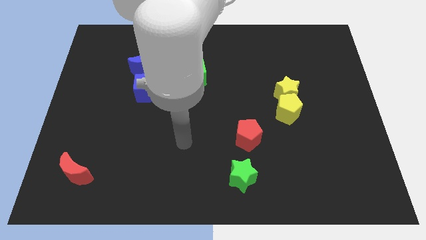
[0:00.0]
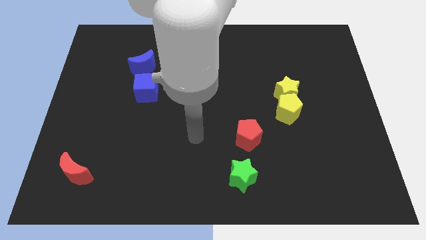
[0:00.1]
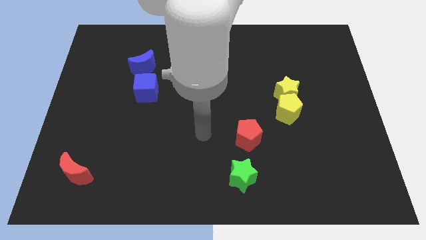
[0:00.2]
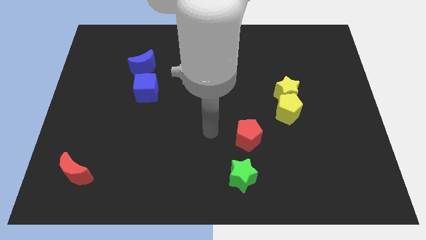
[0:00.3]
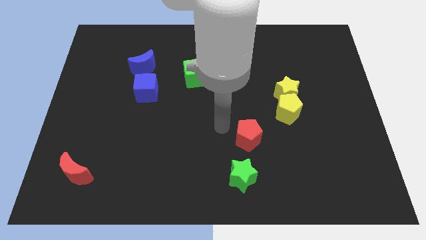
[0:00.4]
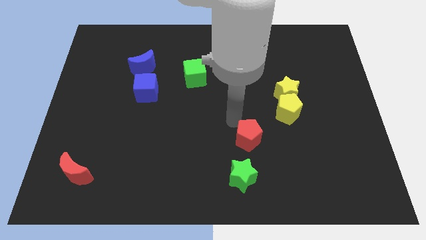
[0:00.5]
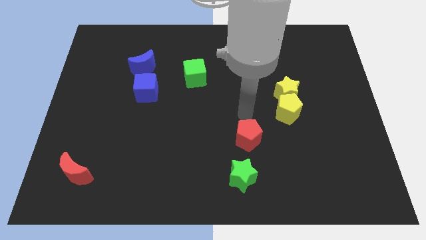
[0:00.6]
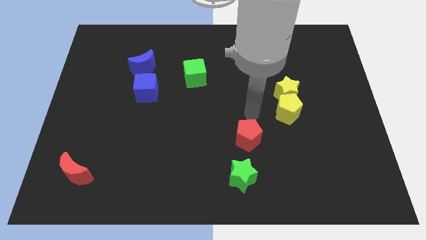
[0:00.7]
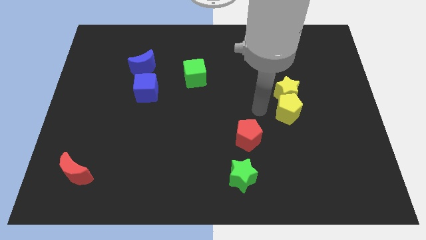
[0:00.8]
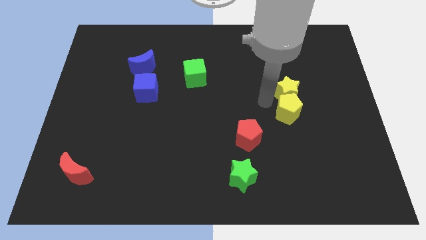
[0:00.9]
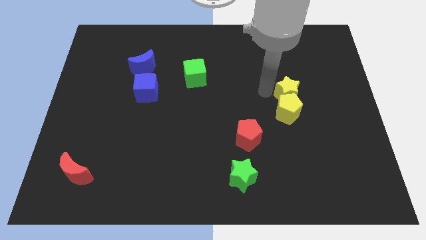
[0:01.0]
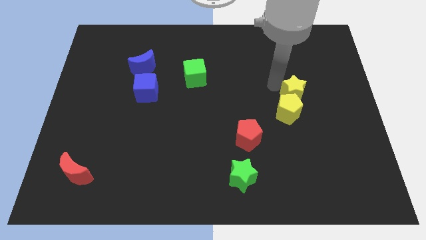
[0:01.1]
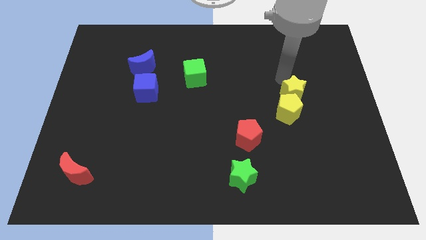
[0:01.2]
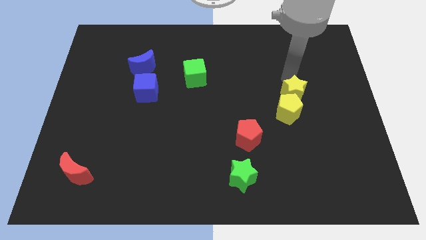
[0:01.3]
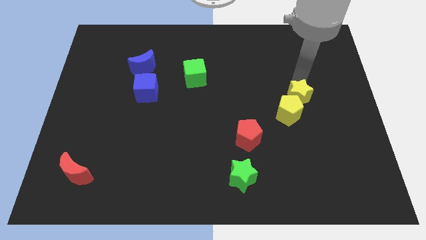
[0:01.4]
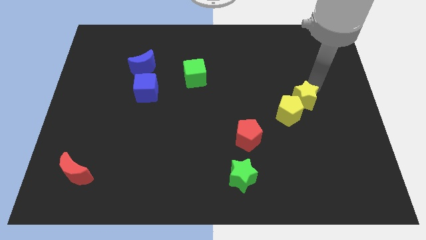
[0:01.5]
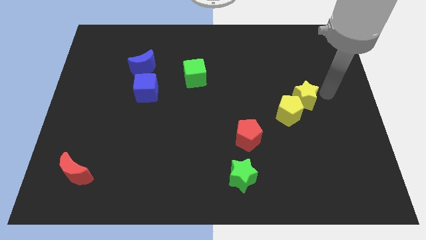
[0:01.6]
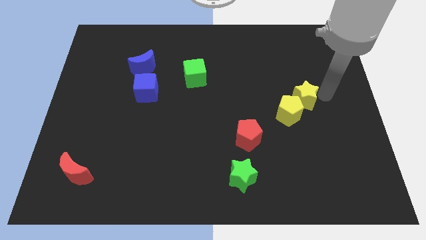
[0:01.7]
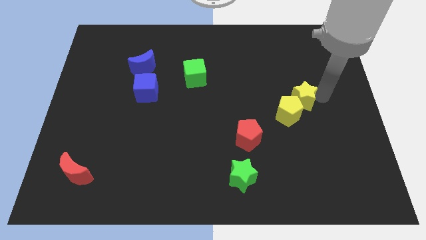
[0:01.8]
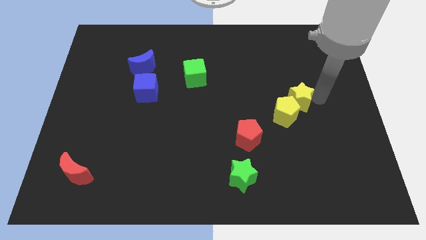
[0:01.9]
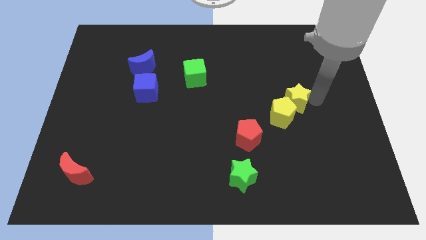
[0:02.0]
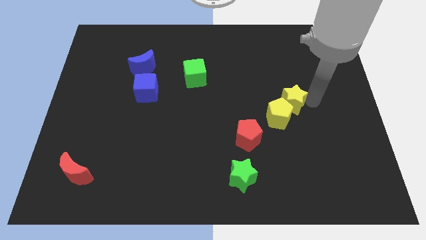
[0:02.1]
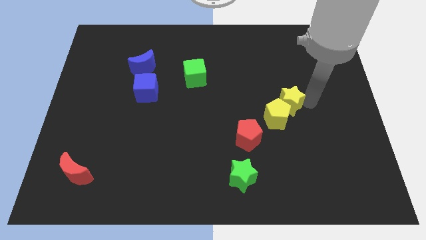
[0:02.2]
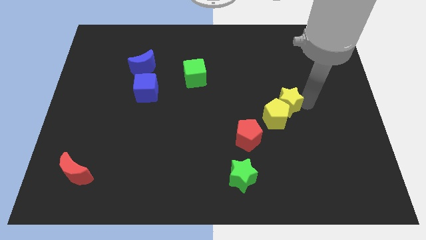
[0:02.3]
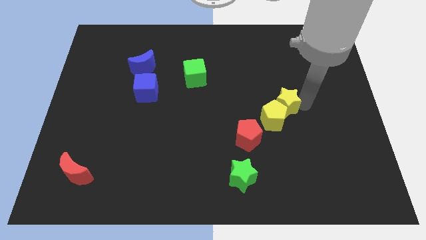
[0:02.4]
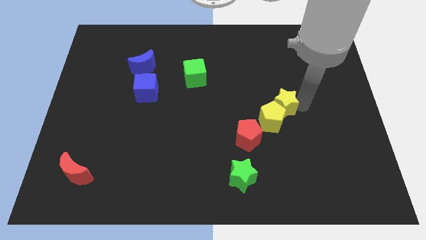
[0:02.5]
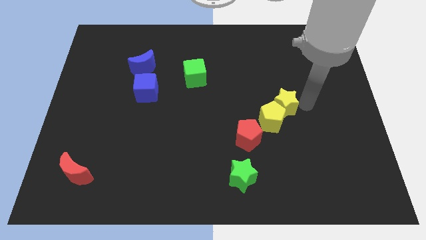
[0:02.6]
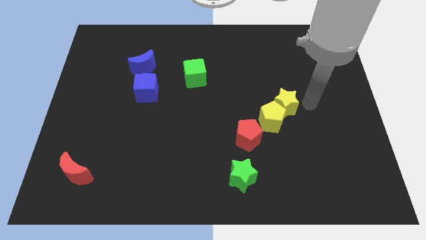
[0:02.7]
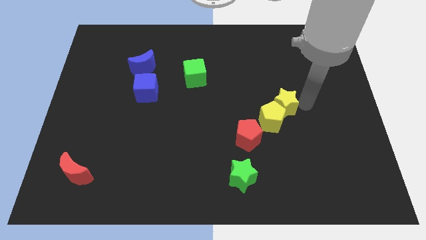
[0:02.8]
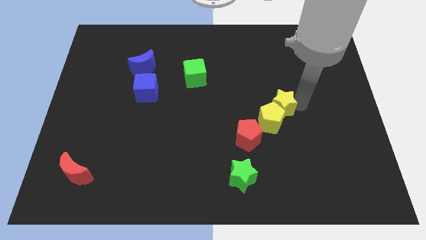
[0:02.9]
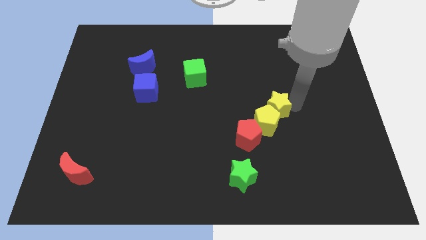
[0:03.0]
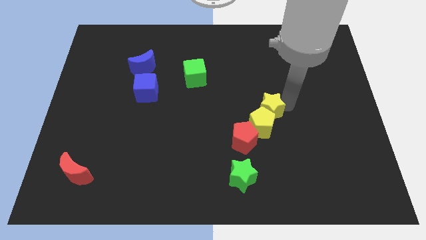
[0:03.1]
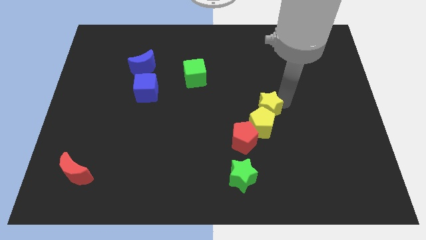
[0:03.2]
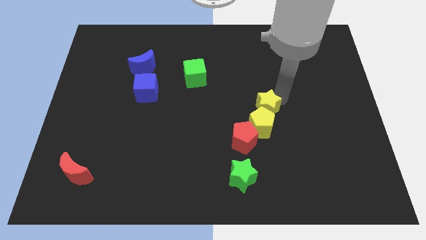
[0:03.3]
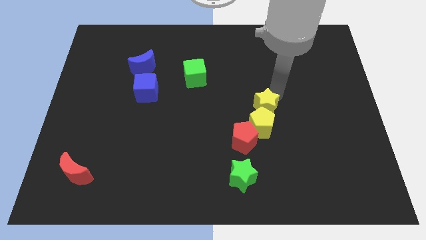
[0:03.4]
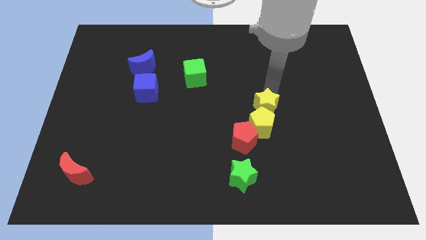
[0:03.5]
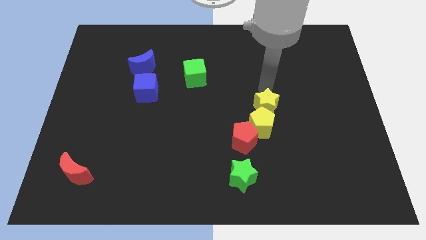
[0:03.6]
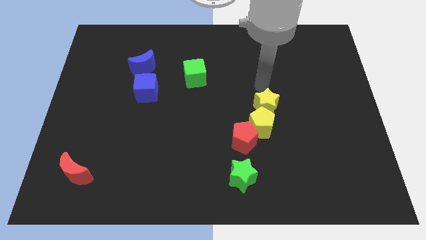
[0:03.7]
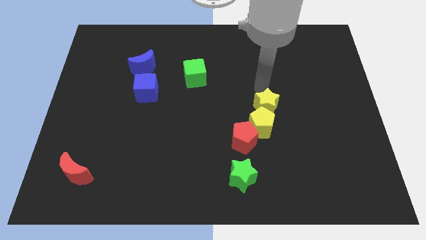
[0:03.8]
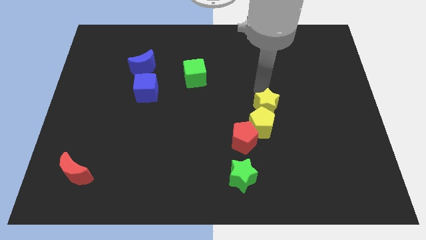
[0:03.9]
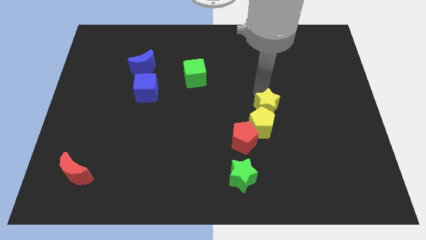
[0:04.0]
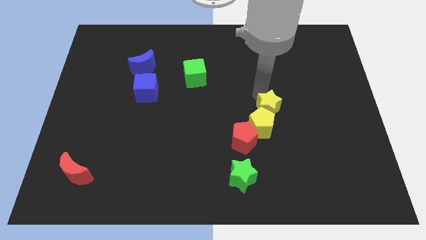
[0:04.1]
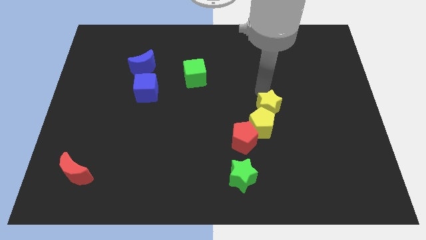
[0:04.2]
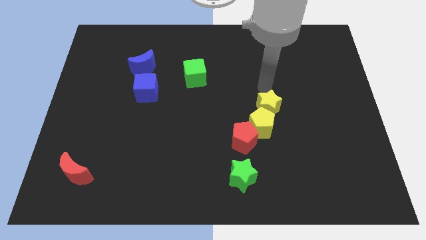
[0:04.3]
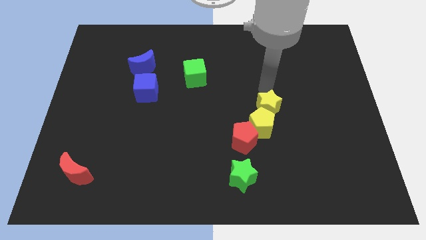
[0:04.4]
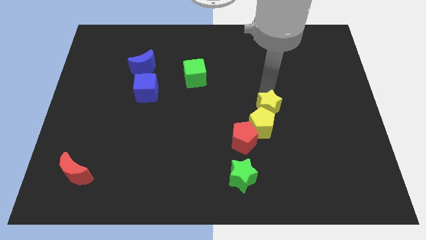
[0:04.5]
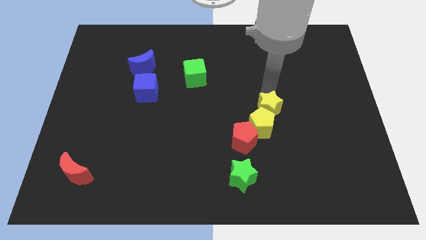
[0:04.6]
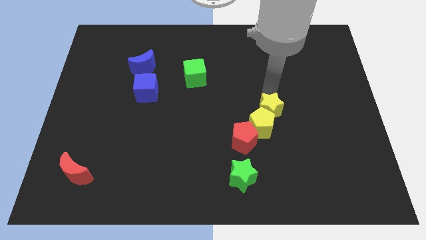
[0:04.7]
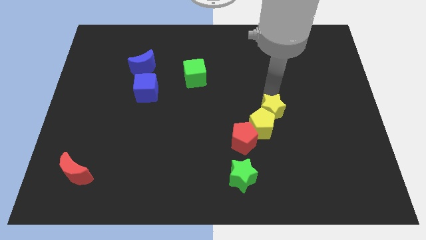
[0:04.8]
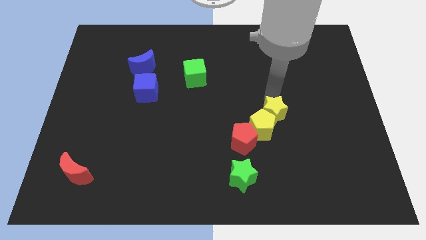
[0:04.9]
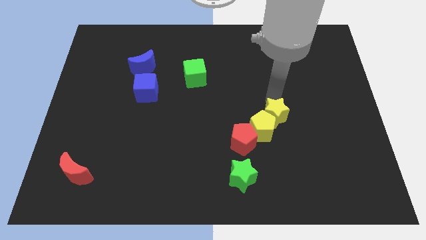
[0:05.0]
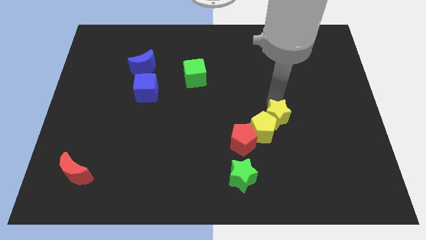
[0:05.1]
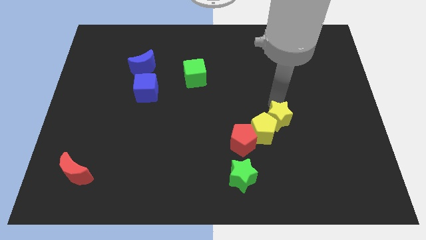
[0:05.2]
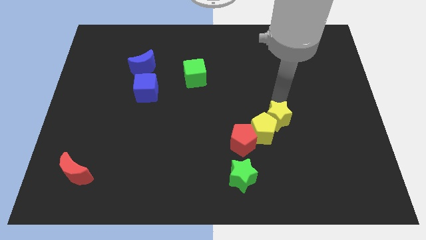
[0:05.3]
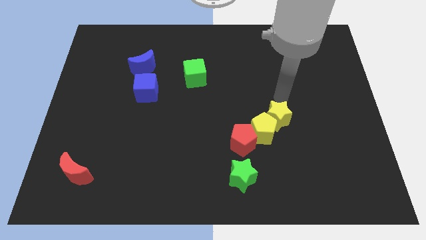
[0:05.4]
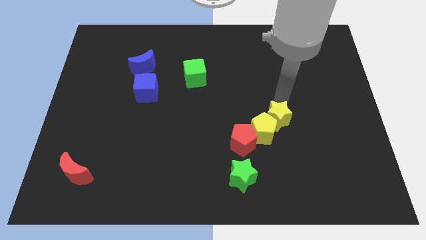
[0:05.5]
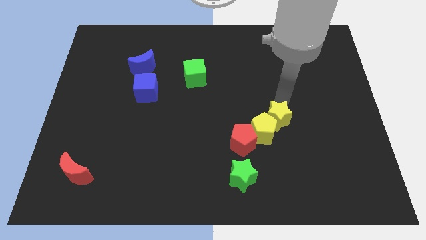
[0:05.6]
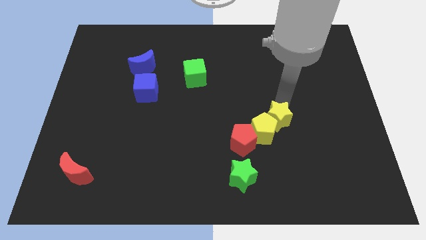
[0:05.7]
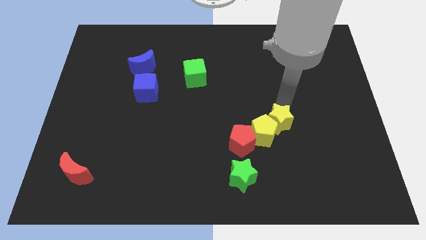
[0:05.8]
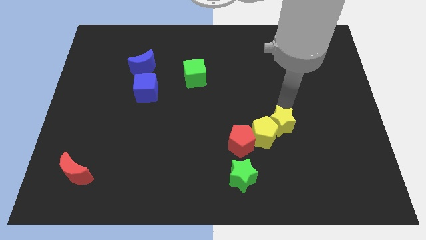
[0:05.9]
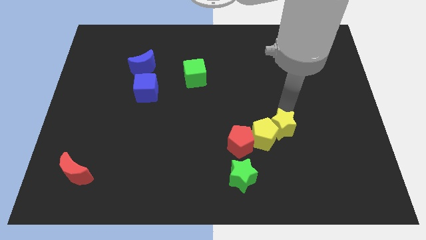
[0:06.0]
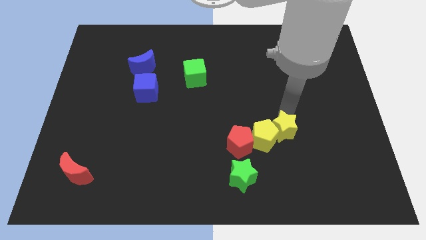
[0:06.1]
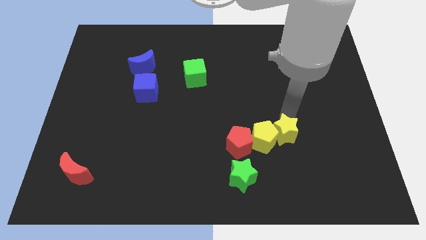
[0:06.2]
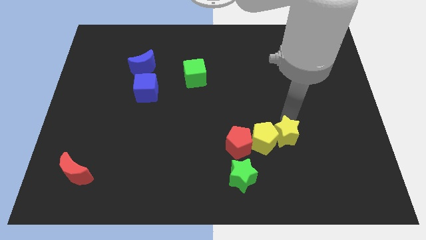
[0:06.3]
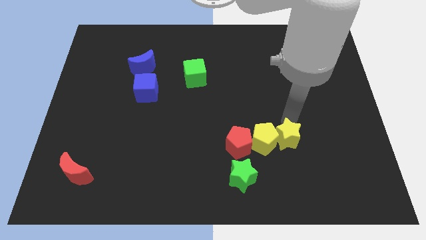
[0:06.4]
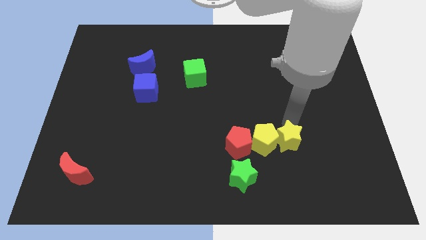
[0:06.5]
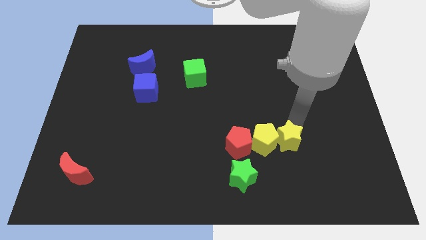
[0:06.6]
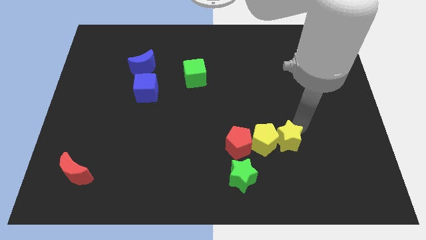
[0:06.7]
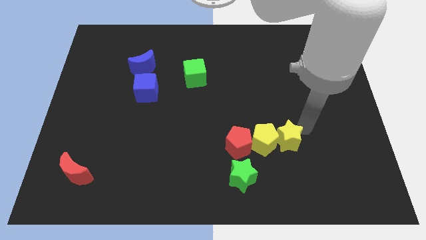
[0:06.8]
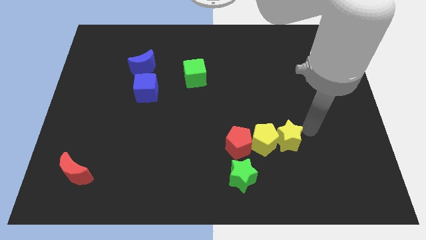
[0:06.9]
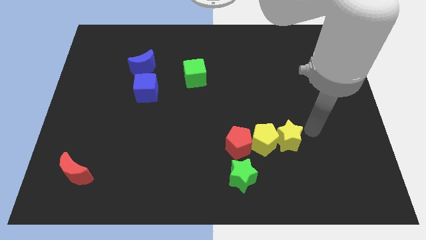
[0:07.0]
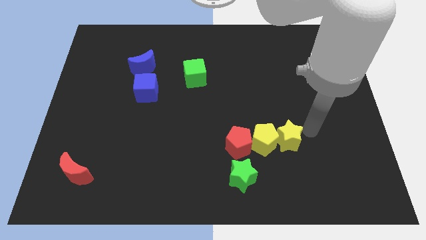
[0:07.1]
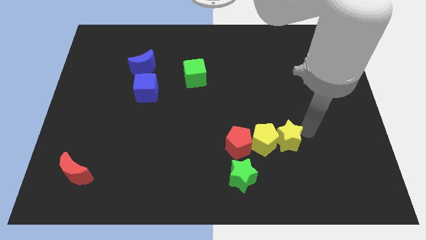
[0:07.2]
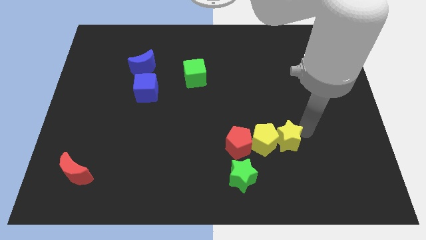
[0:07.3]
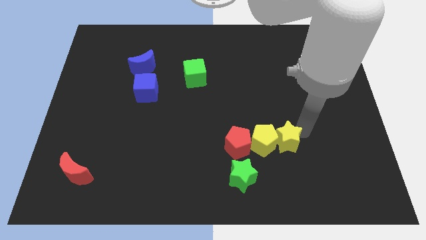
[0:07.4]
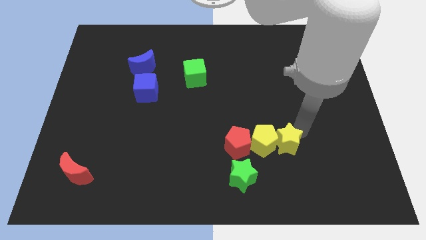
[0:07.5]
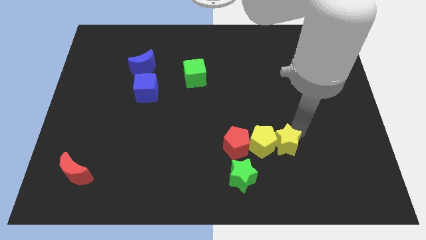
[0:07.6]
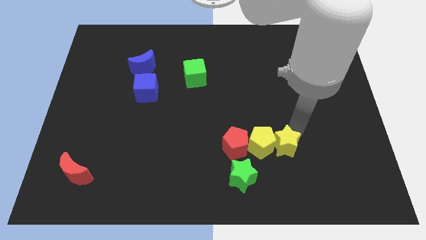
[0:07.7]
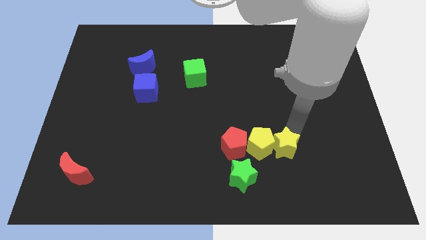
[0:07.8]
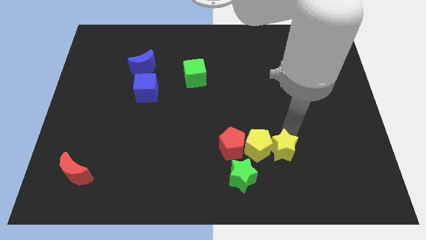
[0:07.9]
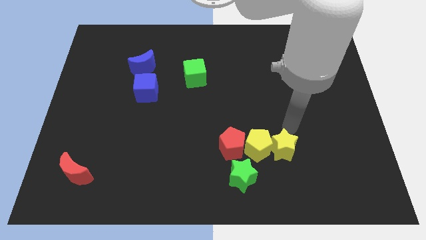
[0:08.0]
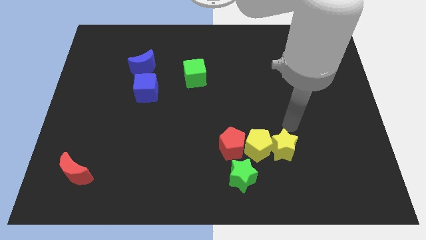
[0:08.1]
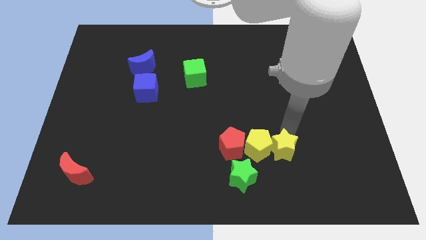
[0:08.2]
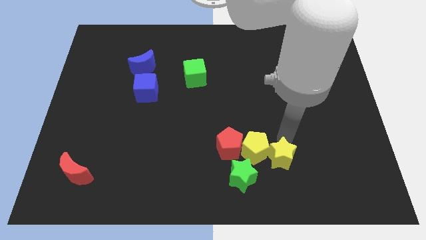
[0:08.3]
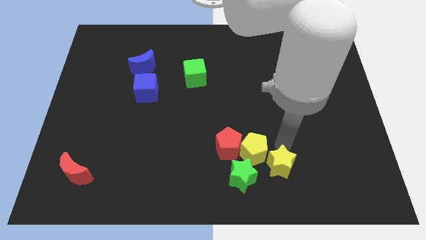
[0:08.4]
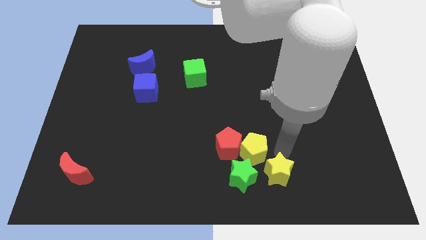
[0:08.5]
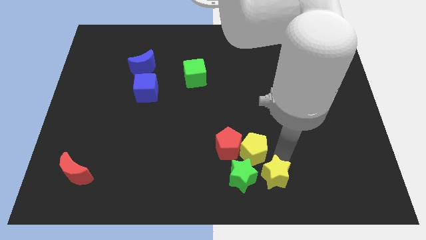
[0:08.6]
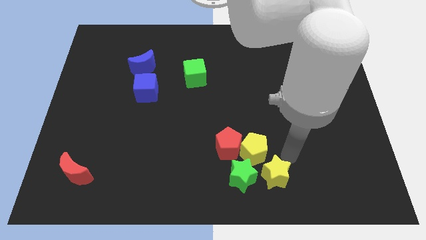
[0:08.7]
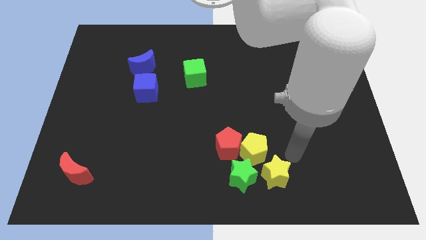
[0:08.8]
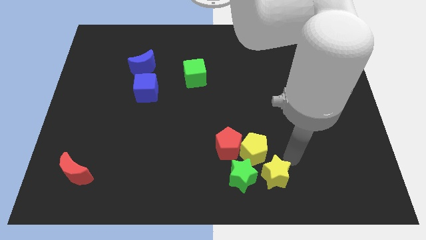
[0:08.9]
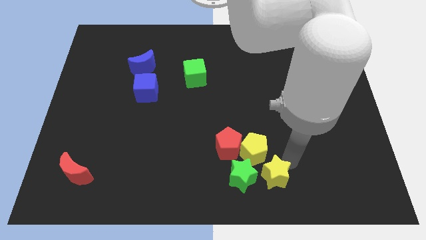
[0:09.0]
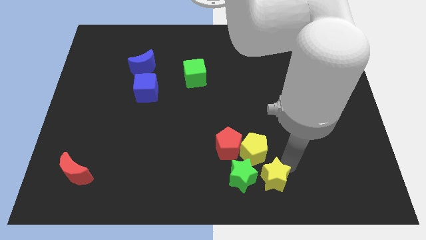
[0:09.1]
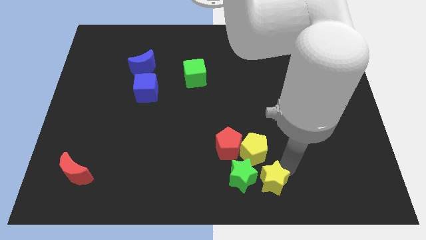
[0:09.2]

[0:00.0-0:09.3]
move the yellow star to the bottom side
